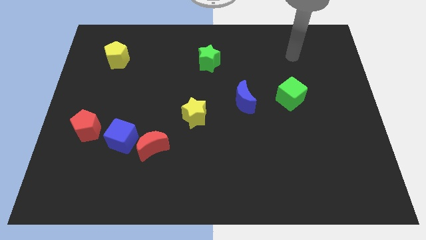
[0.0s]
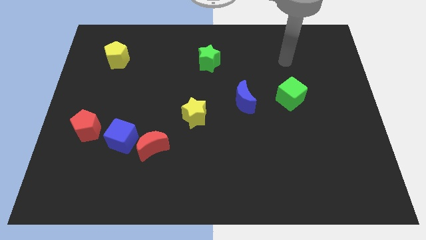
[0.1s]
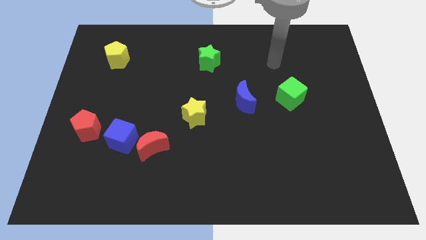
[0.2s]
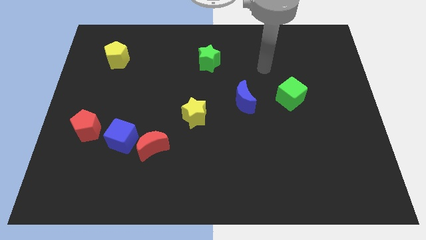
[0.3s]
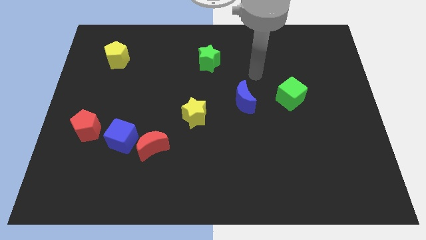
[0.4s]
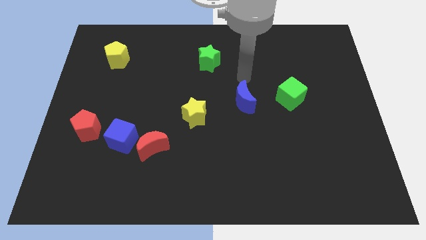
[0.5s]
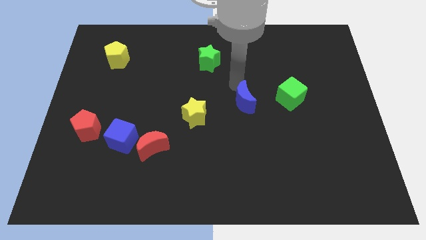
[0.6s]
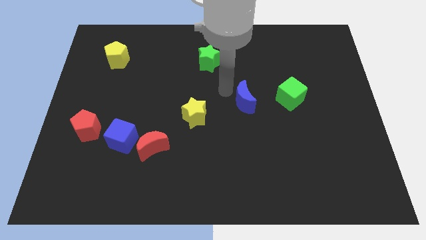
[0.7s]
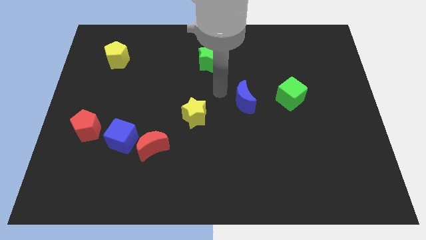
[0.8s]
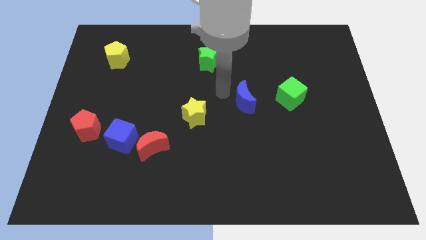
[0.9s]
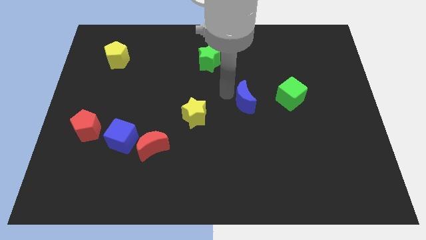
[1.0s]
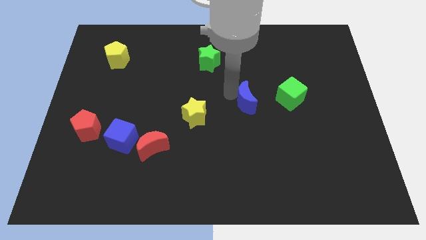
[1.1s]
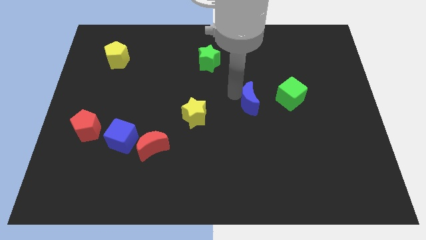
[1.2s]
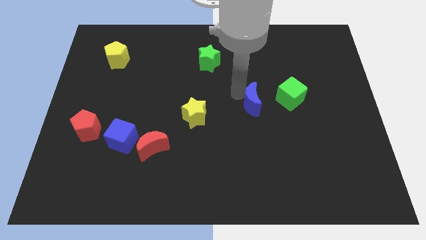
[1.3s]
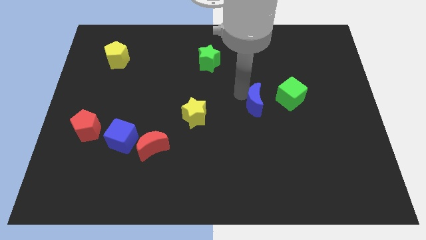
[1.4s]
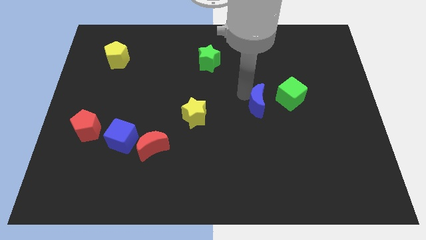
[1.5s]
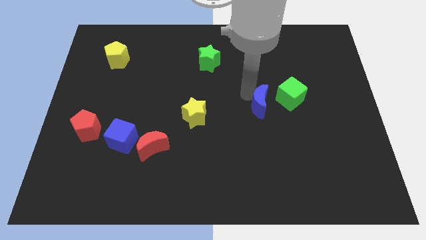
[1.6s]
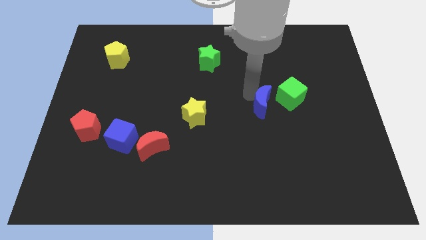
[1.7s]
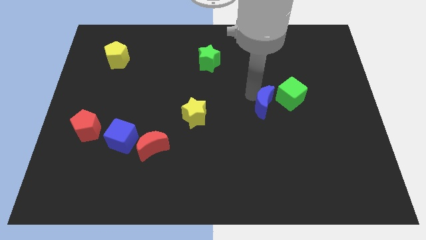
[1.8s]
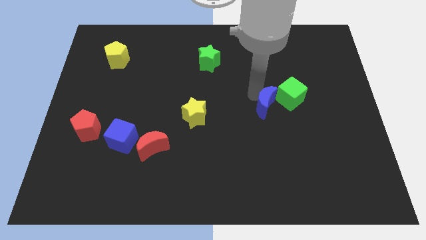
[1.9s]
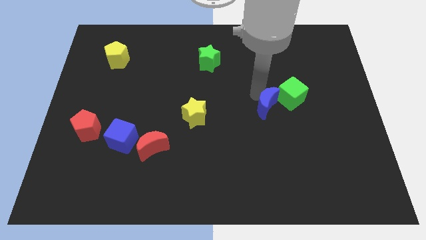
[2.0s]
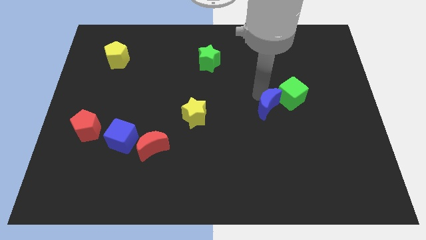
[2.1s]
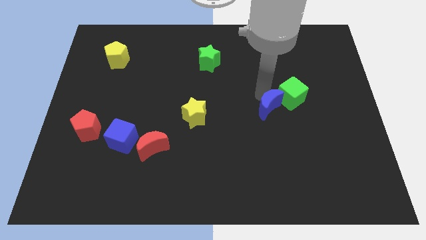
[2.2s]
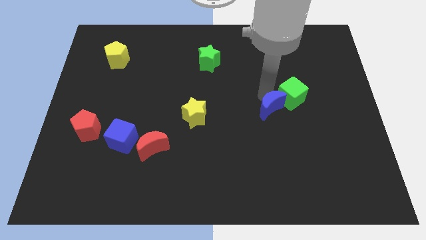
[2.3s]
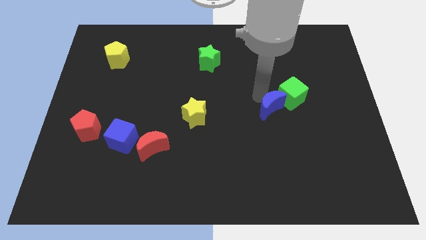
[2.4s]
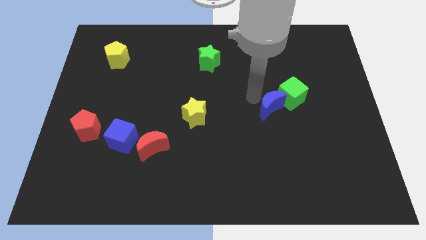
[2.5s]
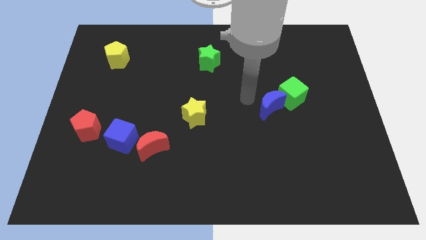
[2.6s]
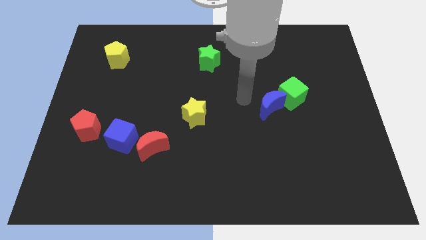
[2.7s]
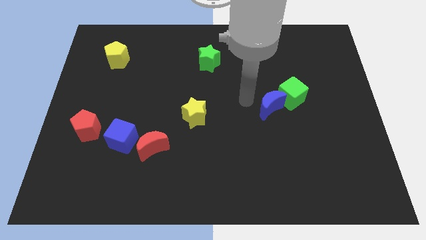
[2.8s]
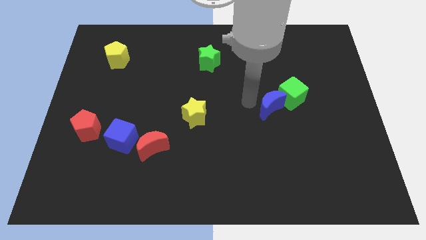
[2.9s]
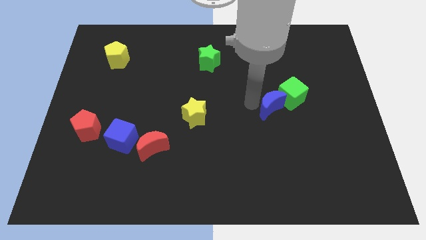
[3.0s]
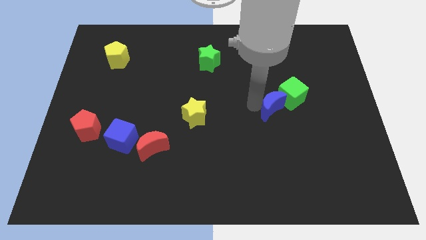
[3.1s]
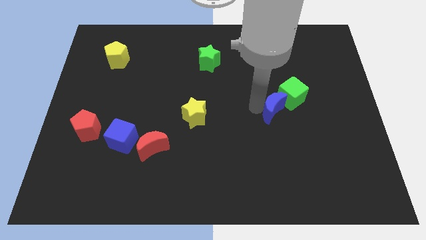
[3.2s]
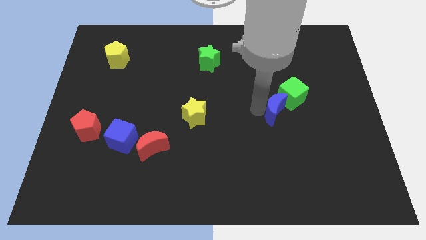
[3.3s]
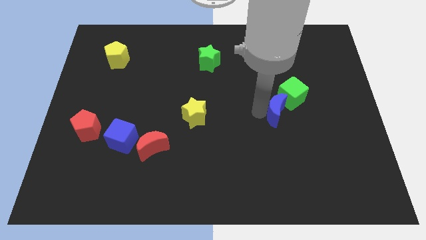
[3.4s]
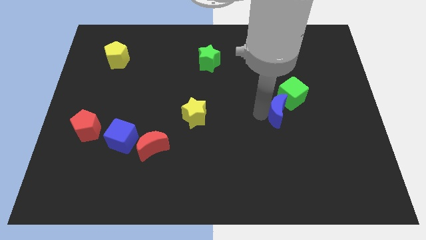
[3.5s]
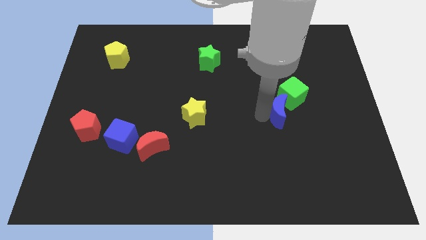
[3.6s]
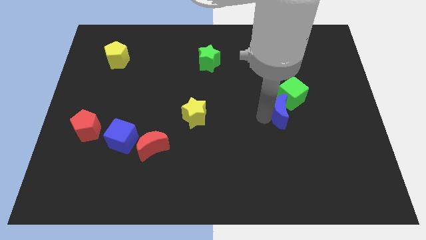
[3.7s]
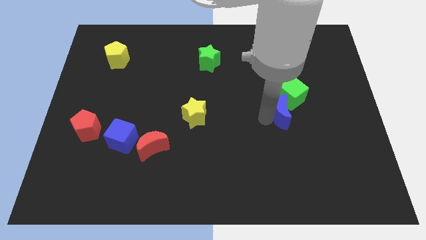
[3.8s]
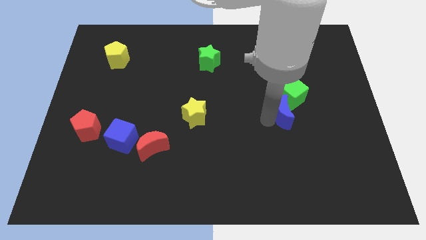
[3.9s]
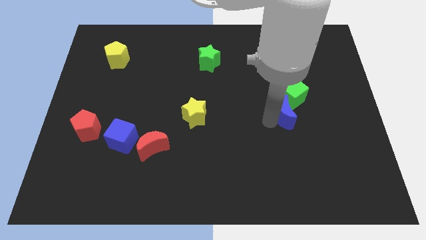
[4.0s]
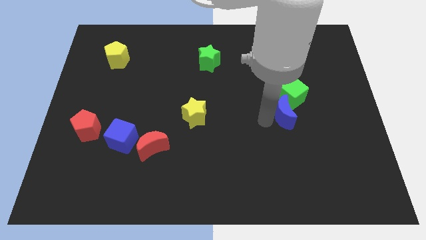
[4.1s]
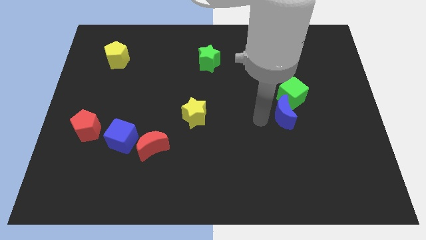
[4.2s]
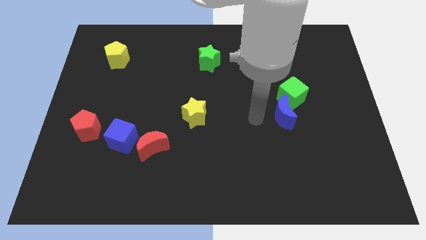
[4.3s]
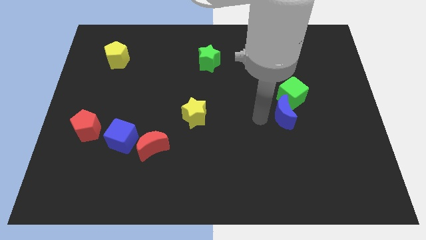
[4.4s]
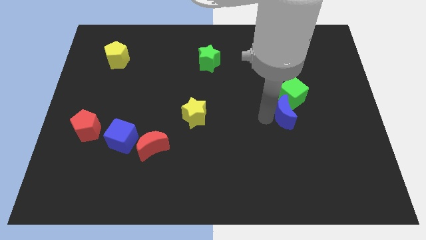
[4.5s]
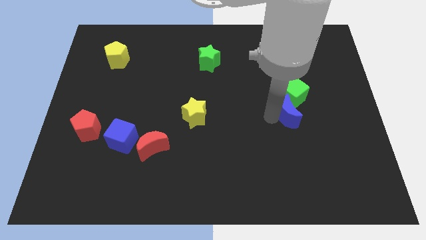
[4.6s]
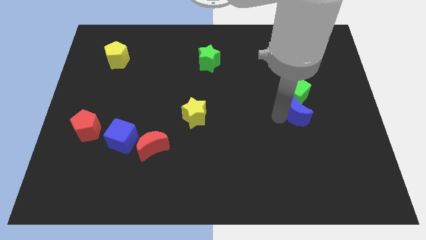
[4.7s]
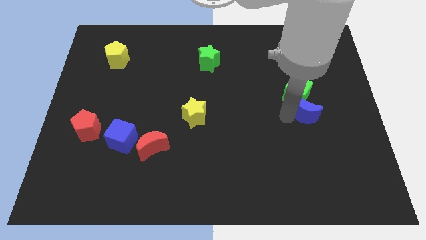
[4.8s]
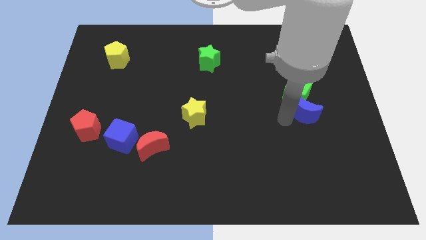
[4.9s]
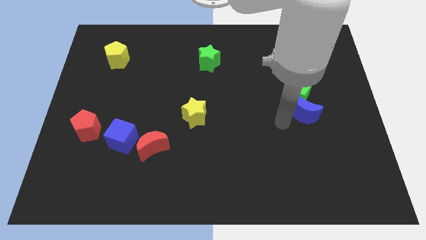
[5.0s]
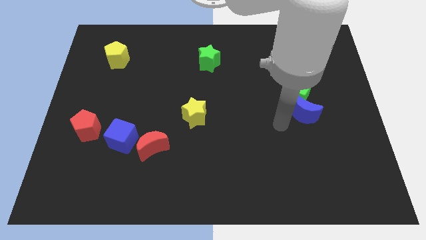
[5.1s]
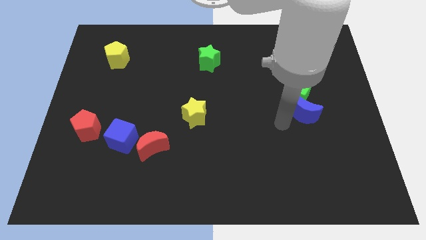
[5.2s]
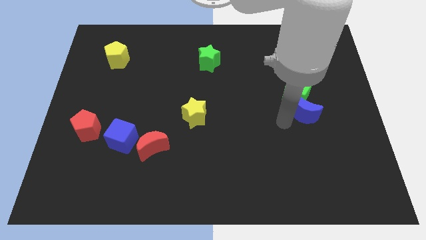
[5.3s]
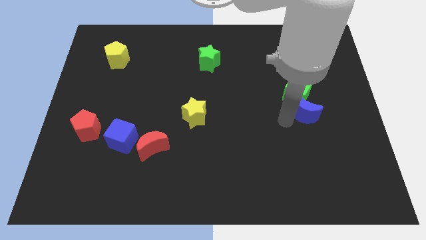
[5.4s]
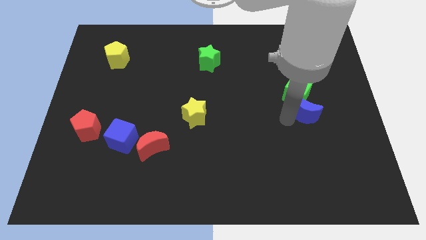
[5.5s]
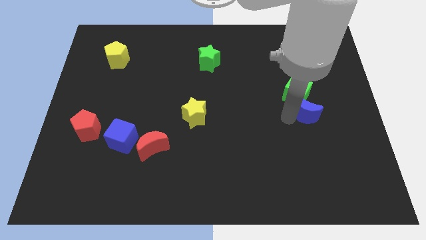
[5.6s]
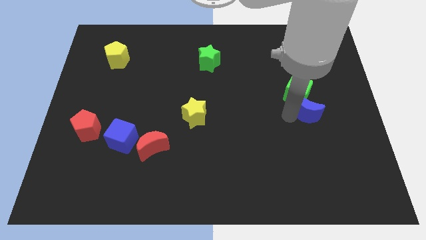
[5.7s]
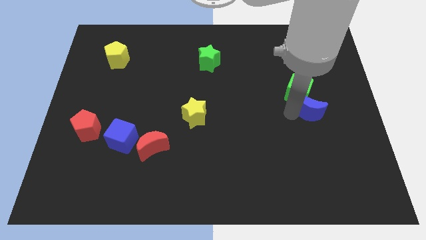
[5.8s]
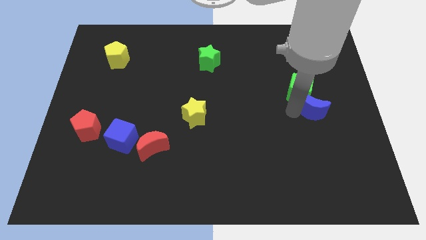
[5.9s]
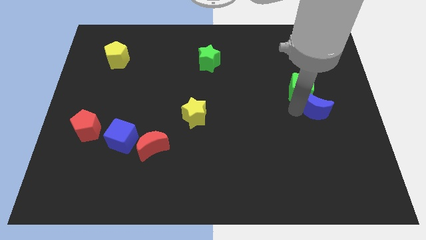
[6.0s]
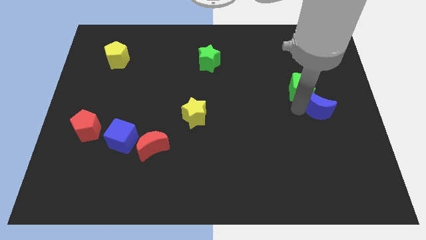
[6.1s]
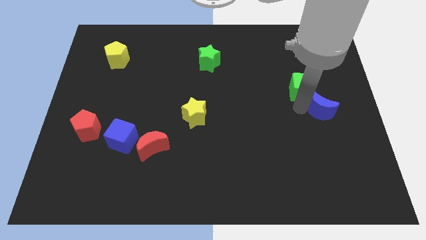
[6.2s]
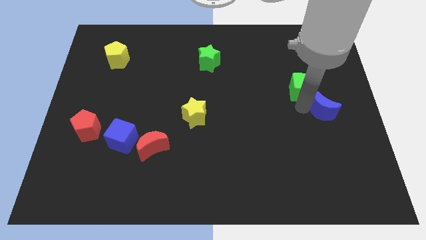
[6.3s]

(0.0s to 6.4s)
push the blue moon to the right side

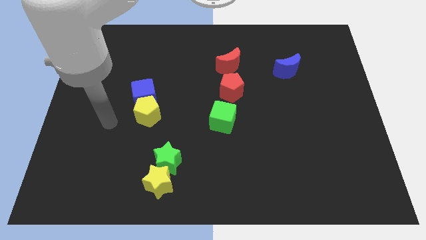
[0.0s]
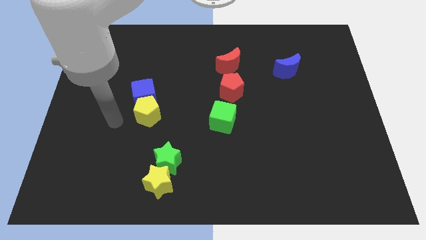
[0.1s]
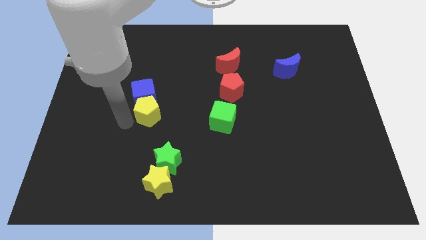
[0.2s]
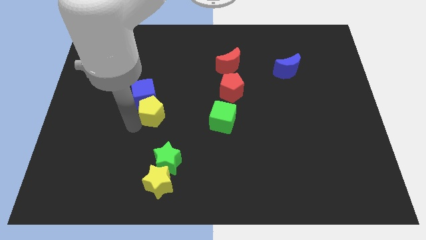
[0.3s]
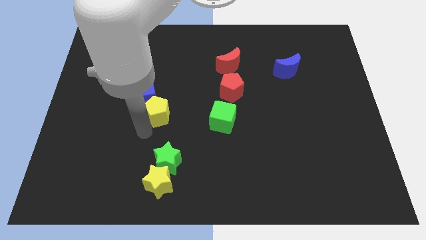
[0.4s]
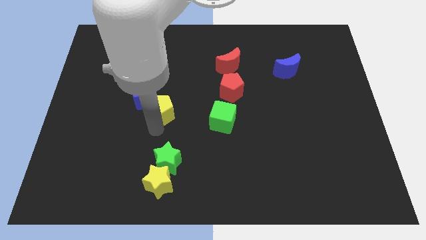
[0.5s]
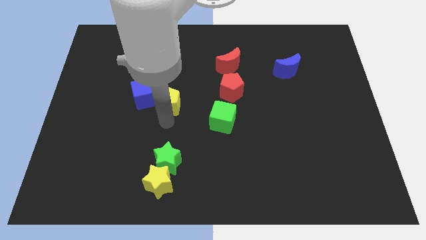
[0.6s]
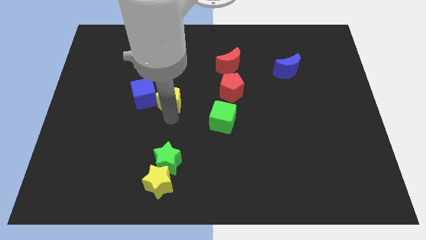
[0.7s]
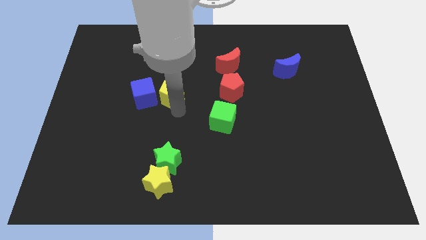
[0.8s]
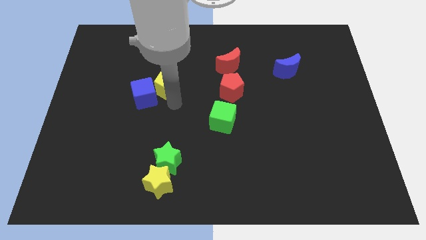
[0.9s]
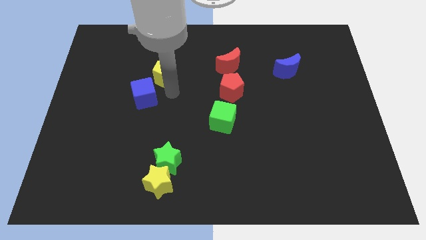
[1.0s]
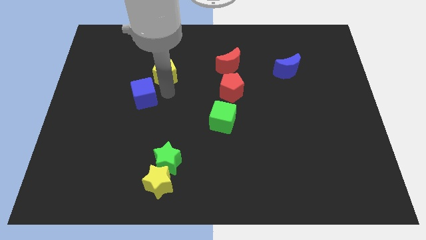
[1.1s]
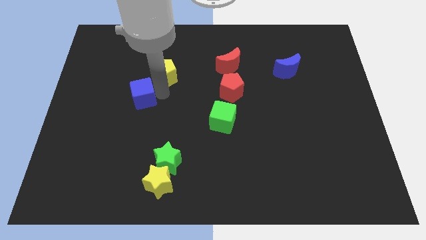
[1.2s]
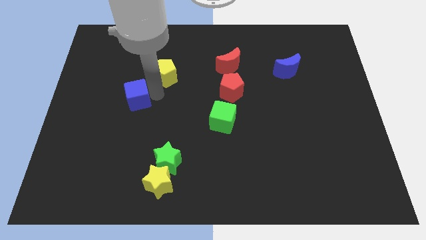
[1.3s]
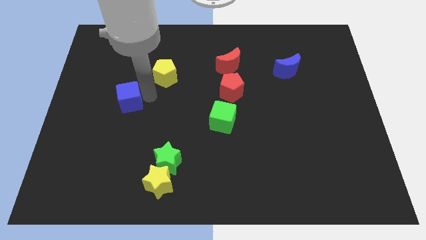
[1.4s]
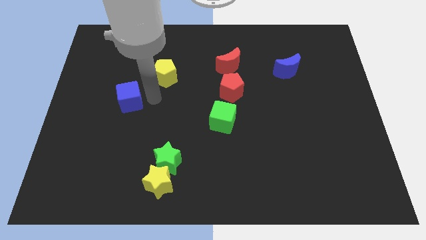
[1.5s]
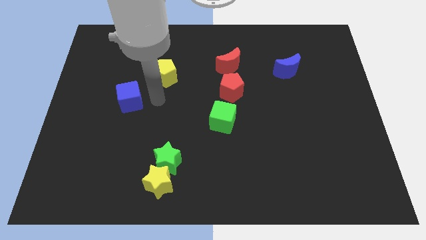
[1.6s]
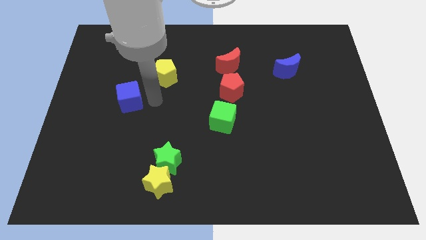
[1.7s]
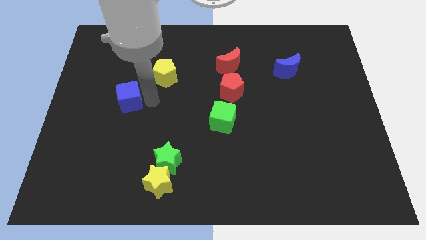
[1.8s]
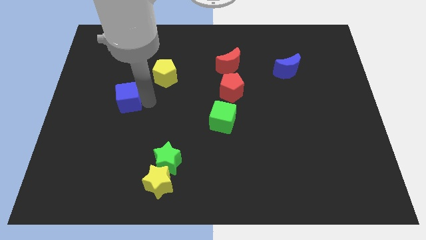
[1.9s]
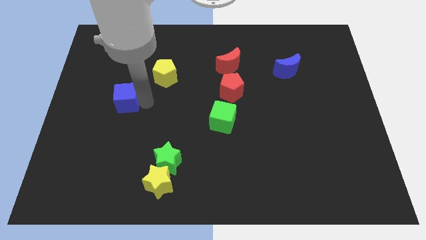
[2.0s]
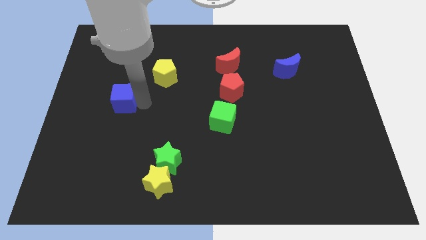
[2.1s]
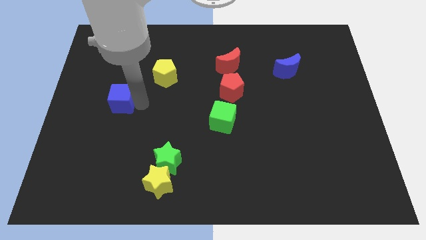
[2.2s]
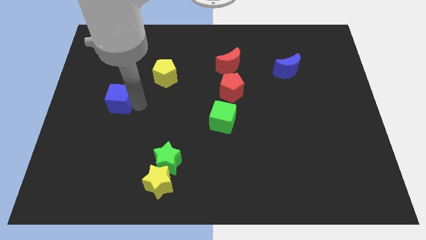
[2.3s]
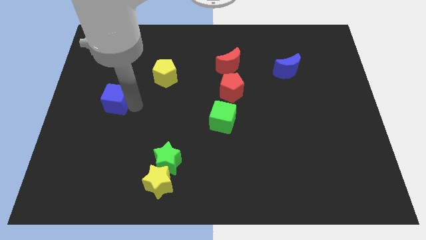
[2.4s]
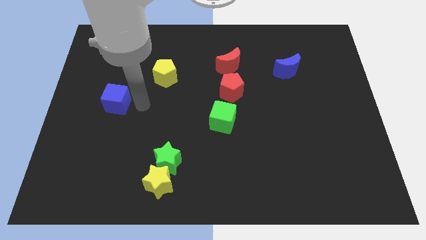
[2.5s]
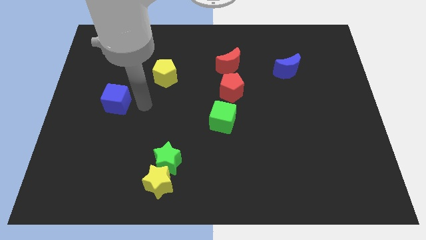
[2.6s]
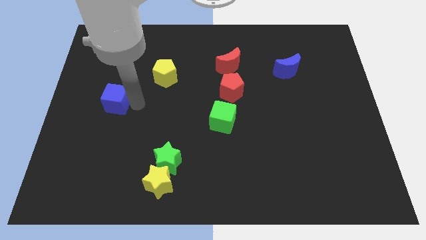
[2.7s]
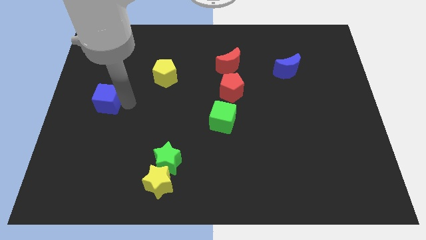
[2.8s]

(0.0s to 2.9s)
push the blue cube to the left side
